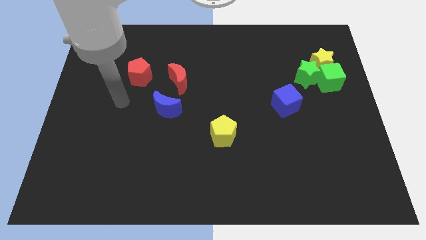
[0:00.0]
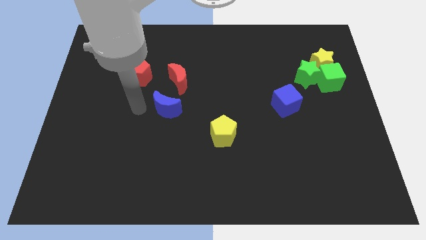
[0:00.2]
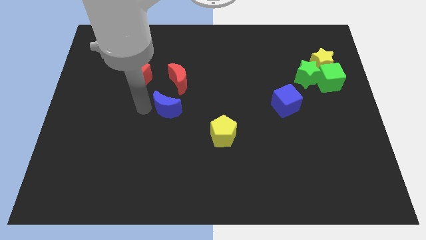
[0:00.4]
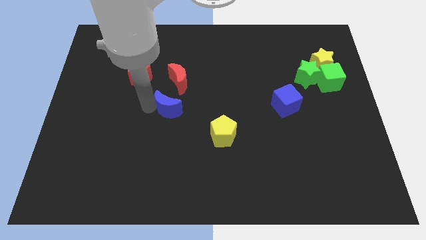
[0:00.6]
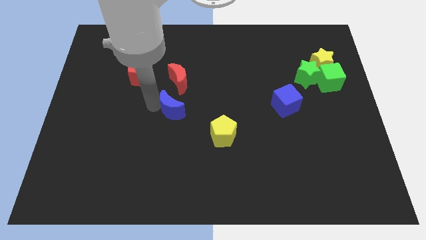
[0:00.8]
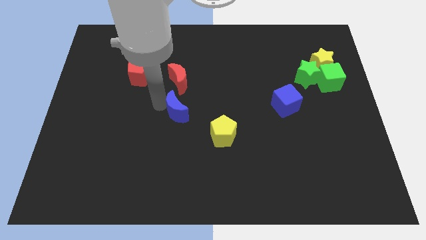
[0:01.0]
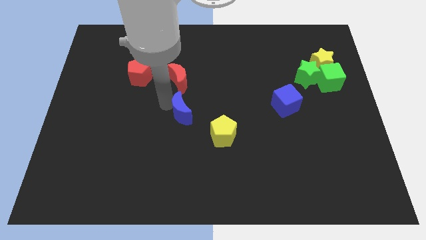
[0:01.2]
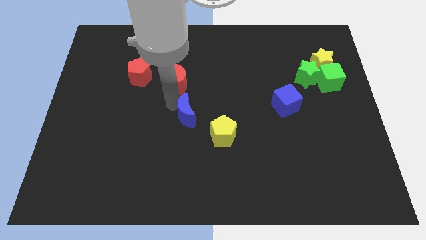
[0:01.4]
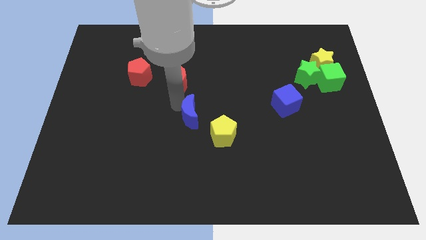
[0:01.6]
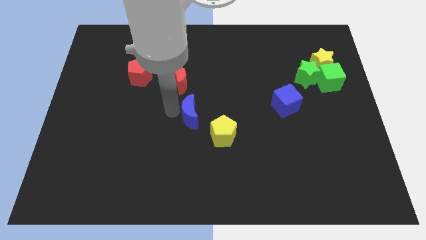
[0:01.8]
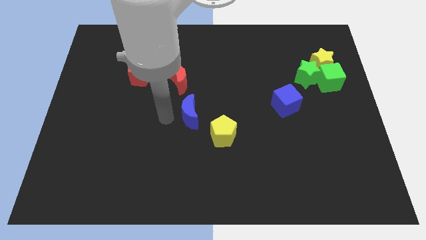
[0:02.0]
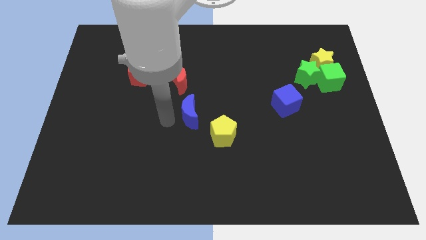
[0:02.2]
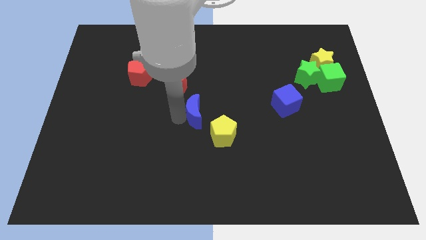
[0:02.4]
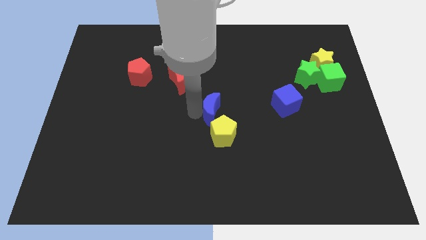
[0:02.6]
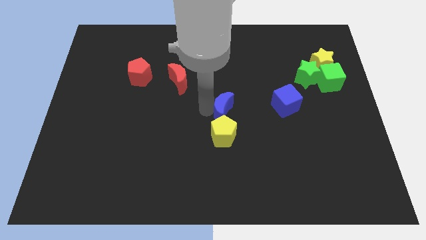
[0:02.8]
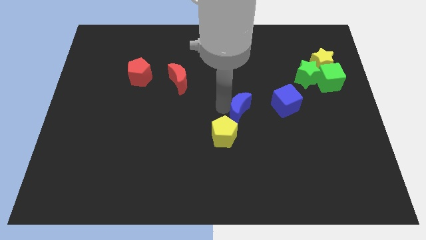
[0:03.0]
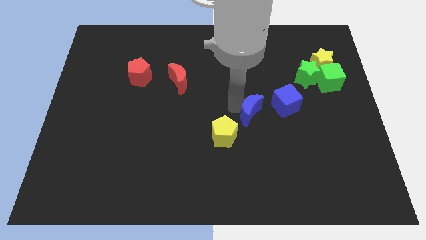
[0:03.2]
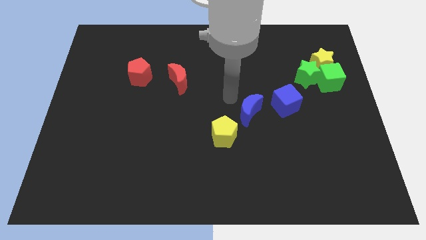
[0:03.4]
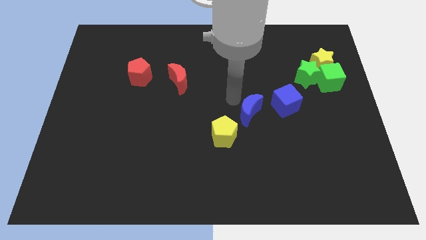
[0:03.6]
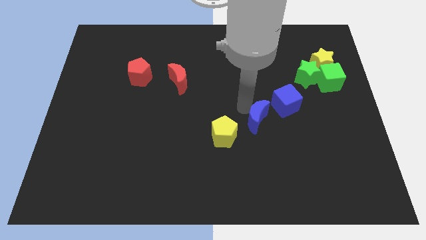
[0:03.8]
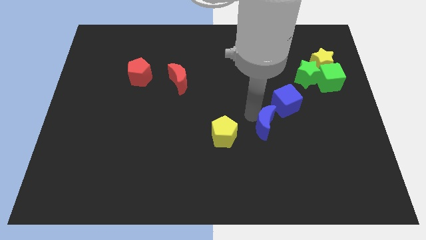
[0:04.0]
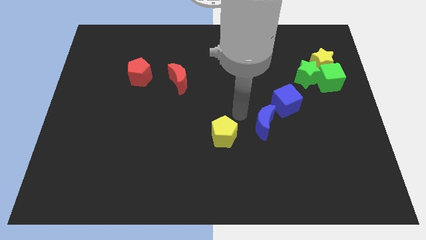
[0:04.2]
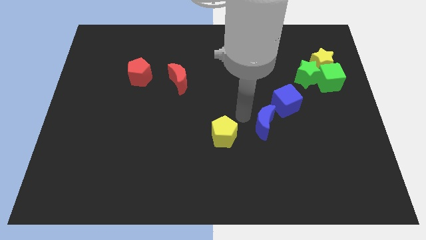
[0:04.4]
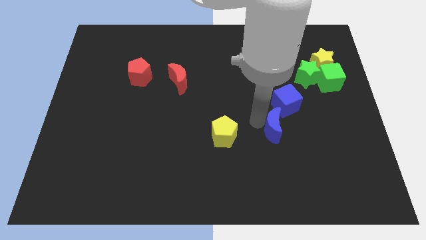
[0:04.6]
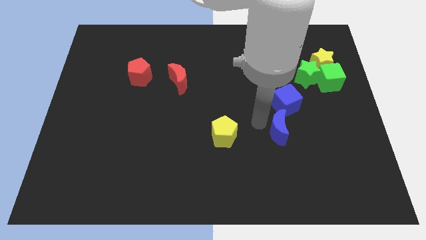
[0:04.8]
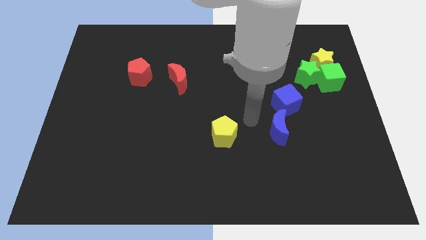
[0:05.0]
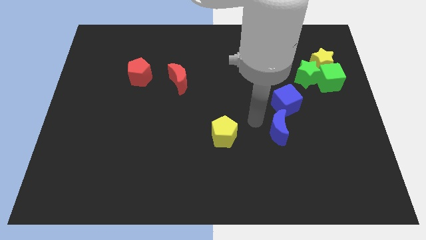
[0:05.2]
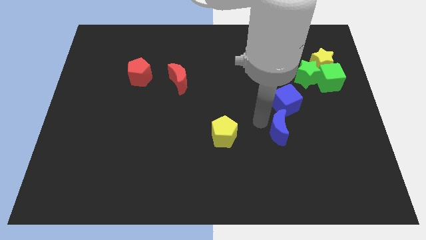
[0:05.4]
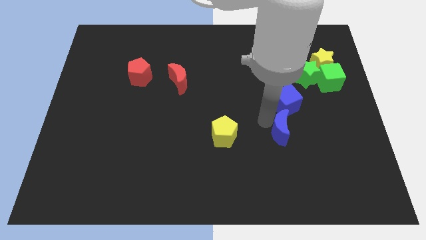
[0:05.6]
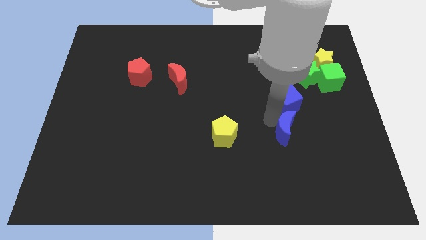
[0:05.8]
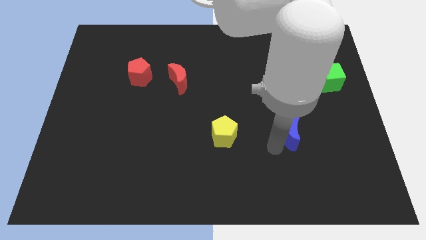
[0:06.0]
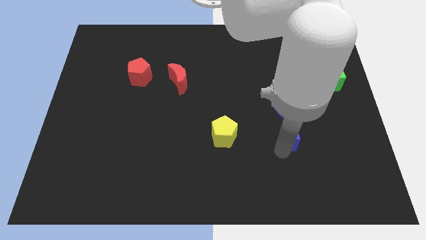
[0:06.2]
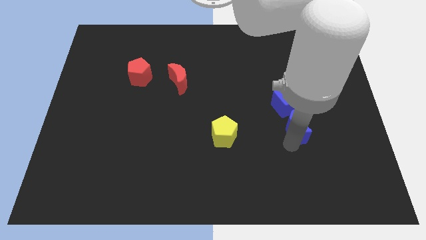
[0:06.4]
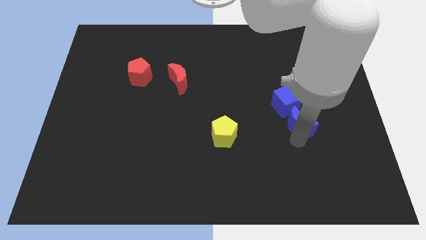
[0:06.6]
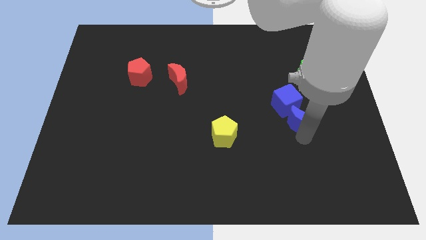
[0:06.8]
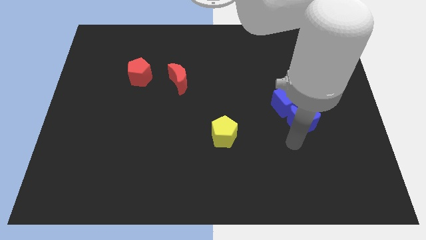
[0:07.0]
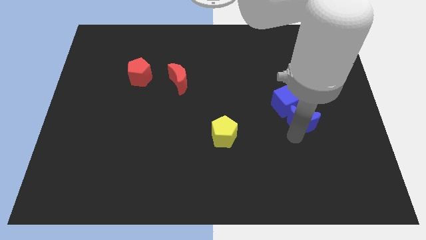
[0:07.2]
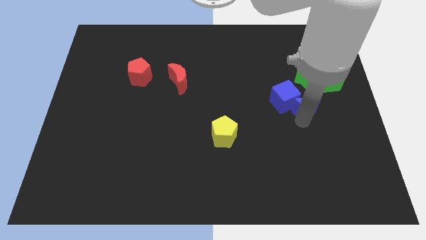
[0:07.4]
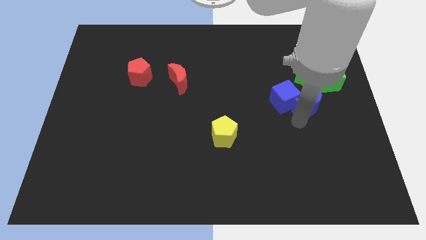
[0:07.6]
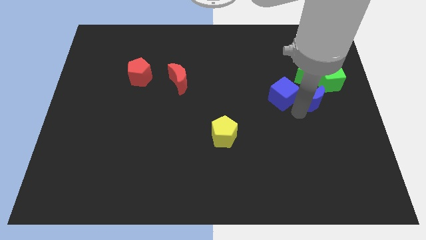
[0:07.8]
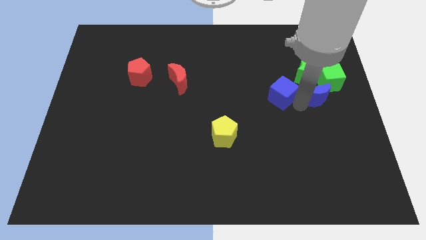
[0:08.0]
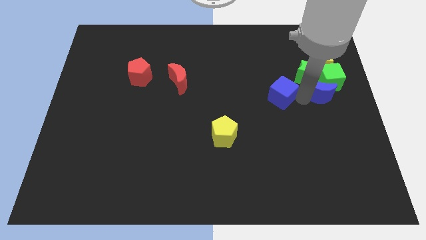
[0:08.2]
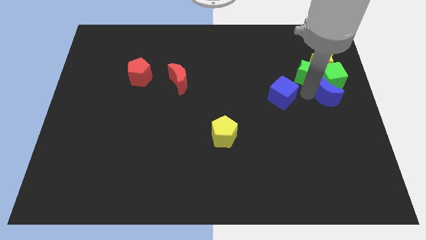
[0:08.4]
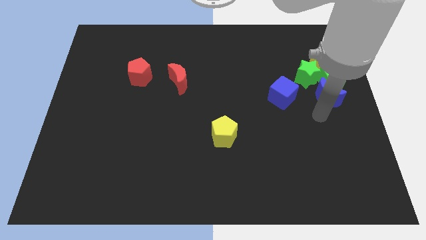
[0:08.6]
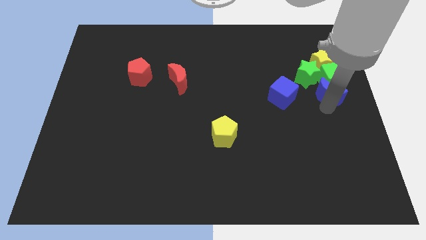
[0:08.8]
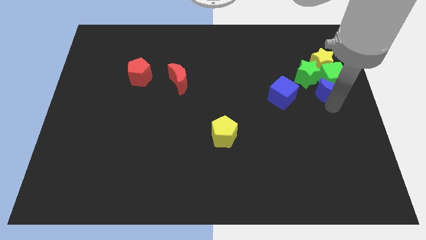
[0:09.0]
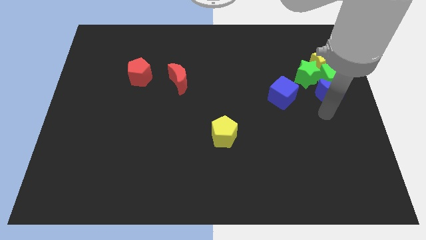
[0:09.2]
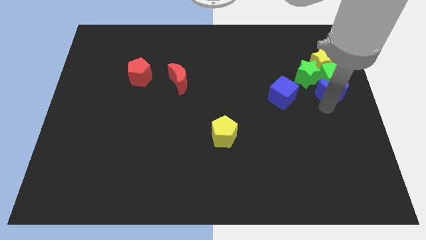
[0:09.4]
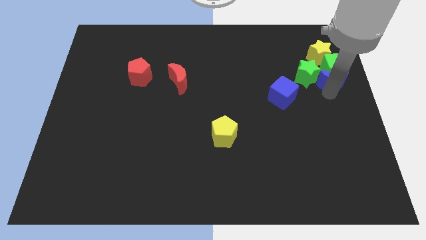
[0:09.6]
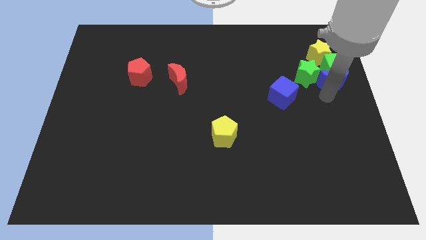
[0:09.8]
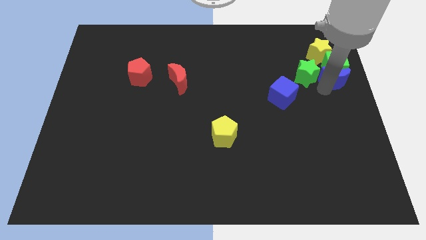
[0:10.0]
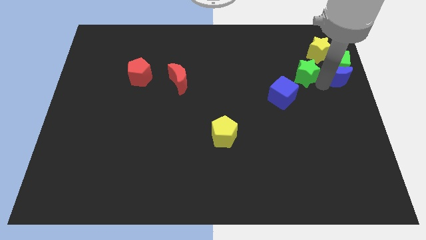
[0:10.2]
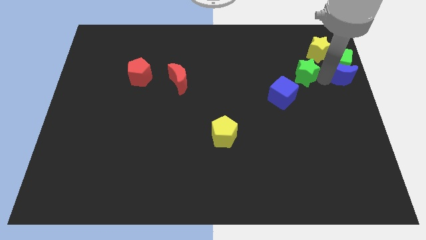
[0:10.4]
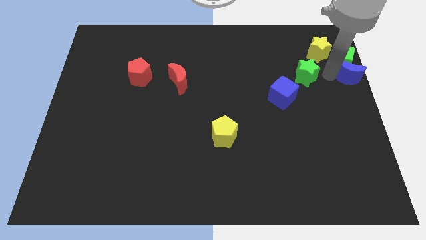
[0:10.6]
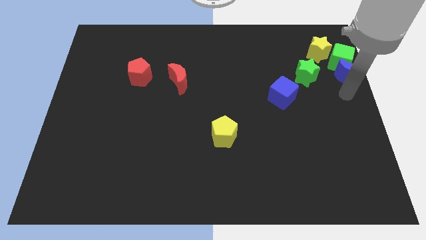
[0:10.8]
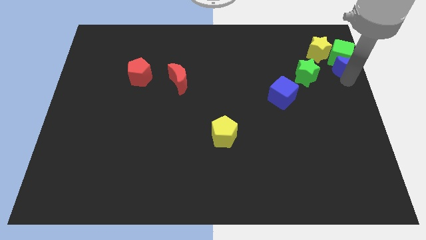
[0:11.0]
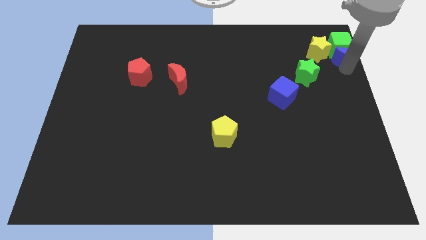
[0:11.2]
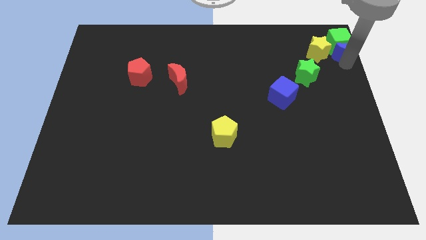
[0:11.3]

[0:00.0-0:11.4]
move the blue moon to the upper right corner
